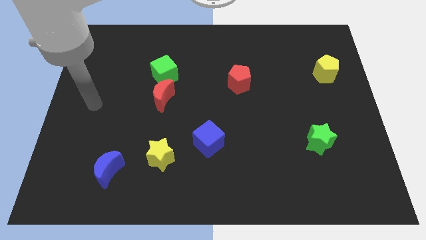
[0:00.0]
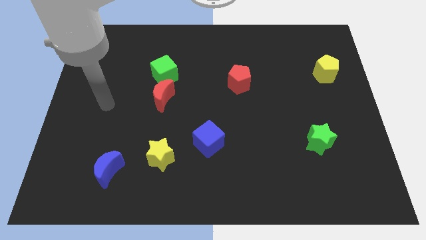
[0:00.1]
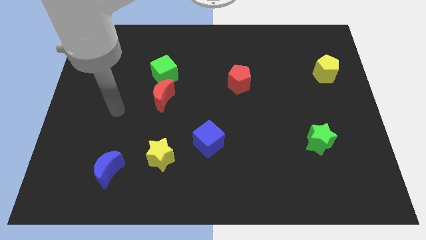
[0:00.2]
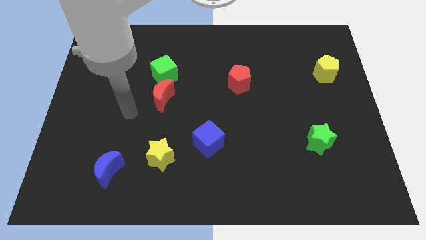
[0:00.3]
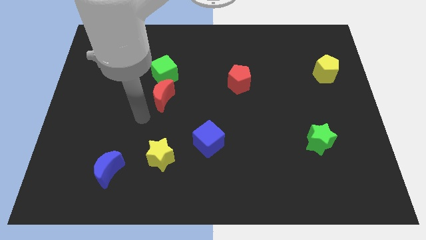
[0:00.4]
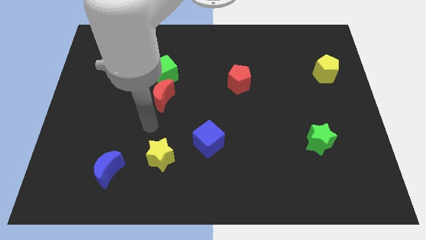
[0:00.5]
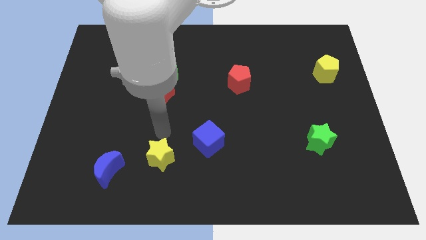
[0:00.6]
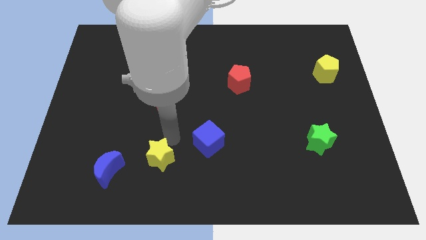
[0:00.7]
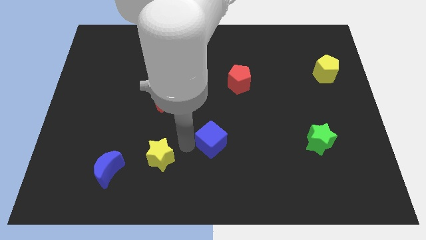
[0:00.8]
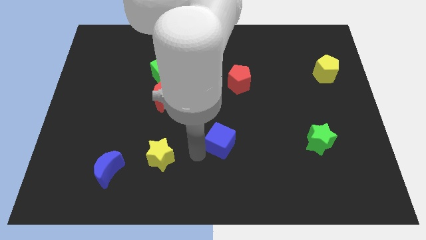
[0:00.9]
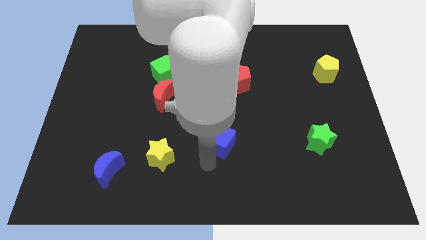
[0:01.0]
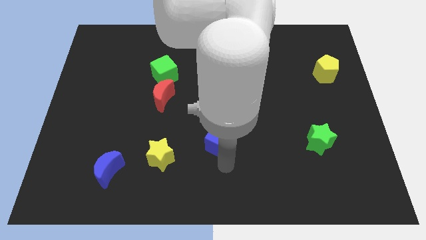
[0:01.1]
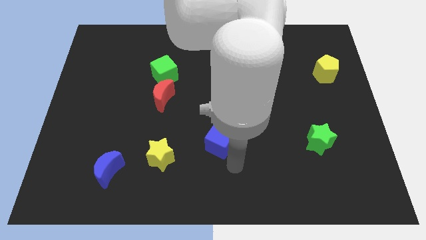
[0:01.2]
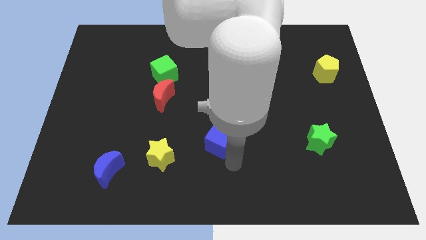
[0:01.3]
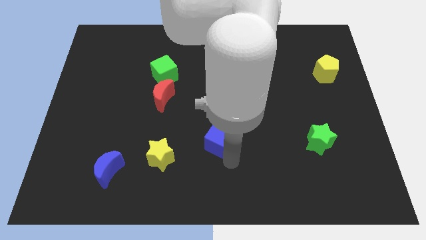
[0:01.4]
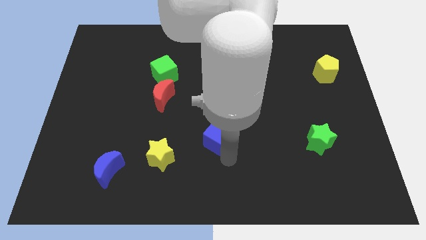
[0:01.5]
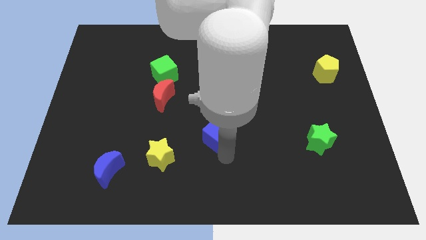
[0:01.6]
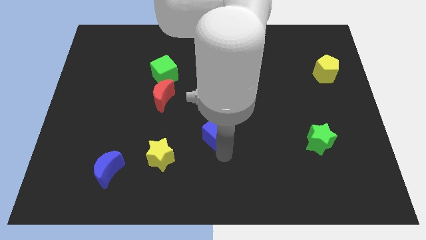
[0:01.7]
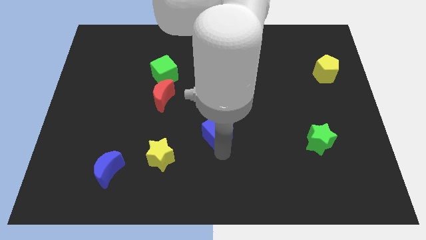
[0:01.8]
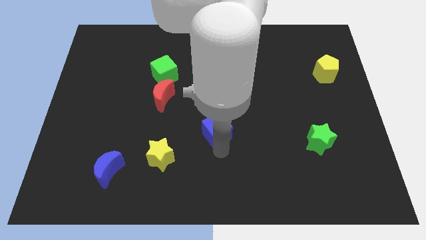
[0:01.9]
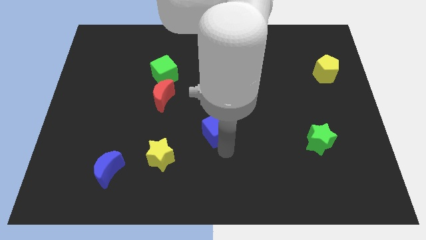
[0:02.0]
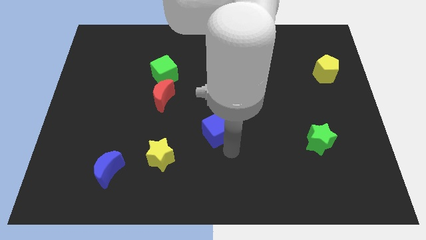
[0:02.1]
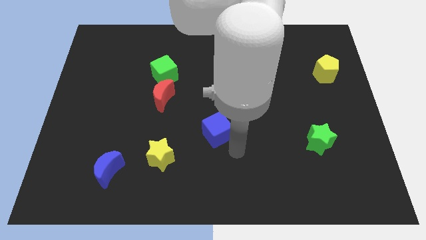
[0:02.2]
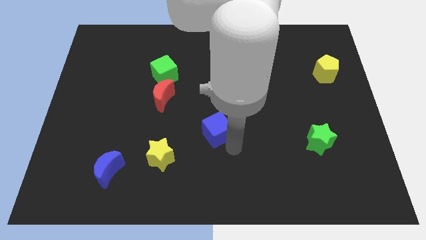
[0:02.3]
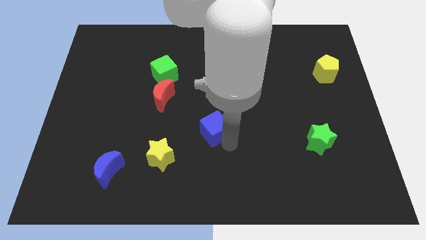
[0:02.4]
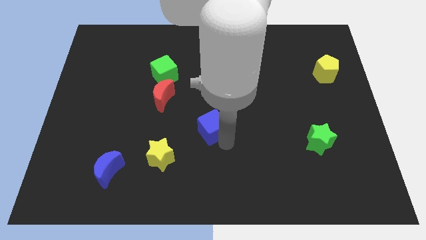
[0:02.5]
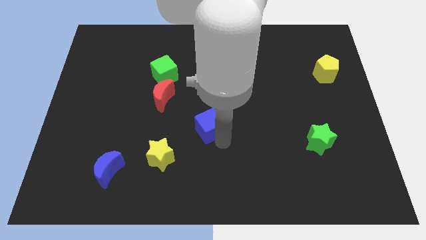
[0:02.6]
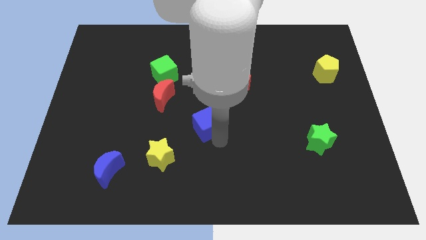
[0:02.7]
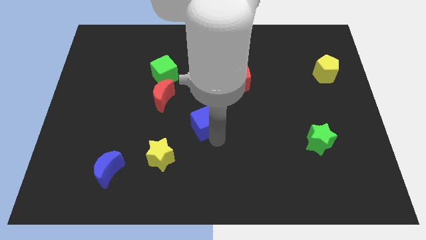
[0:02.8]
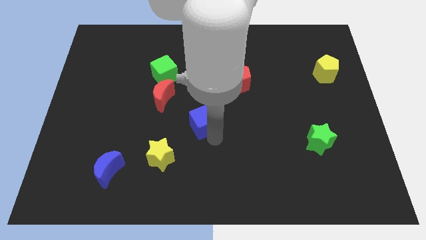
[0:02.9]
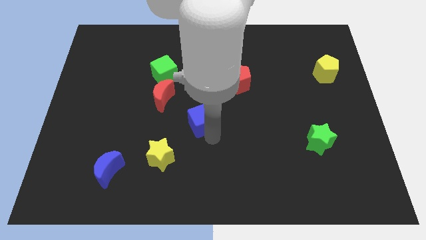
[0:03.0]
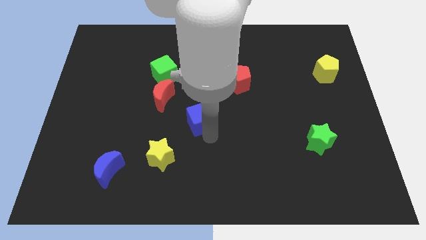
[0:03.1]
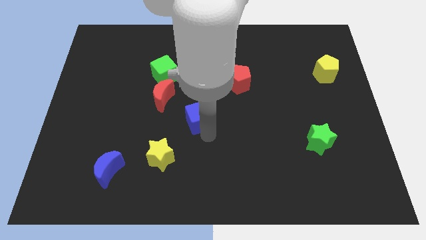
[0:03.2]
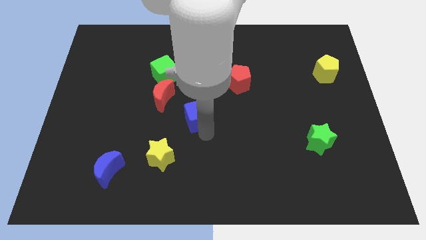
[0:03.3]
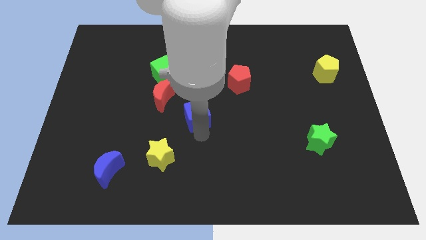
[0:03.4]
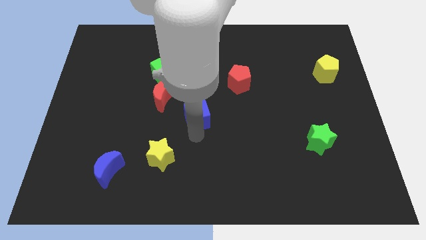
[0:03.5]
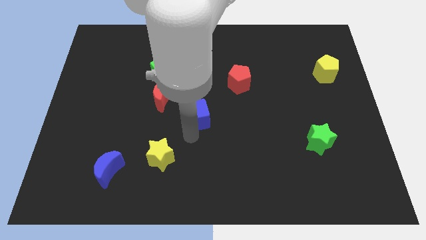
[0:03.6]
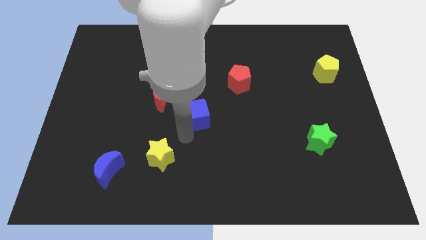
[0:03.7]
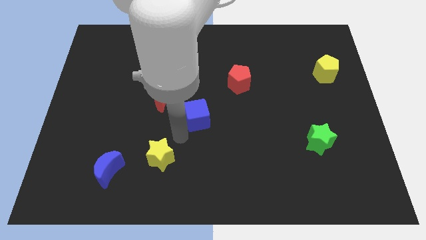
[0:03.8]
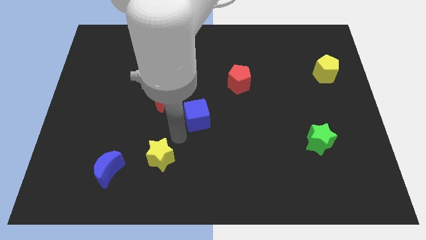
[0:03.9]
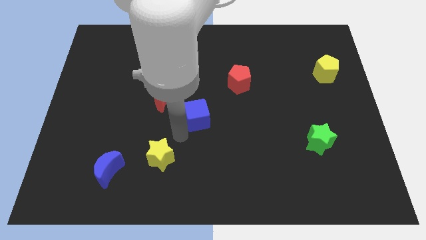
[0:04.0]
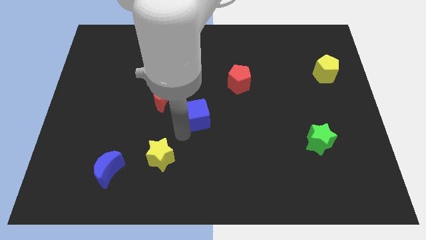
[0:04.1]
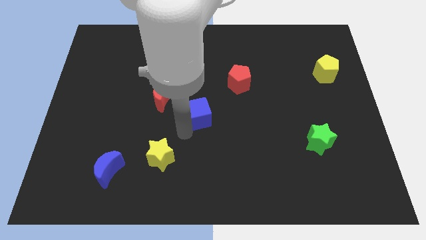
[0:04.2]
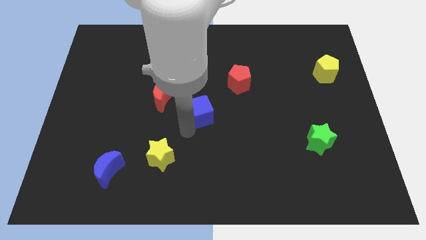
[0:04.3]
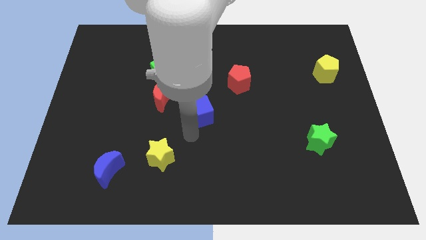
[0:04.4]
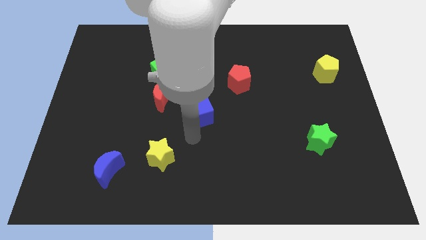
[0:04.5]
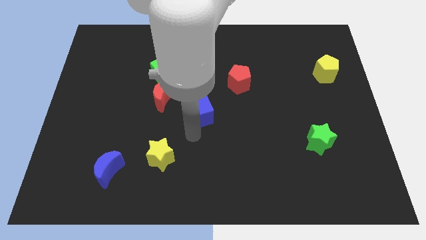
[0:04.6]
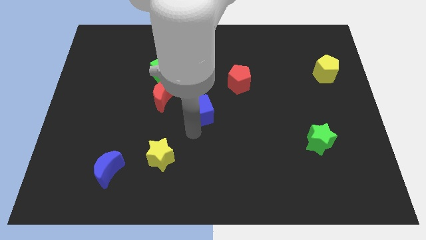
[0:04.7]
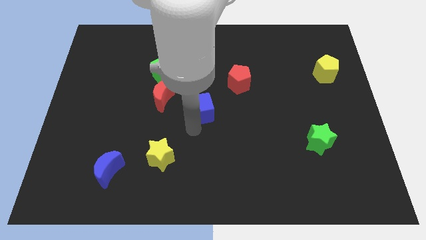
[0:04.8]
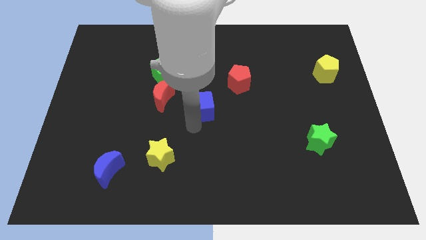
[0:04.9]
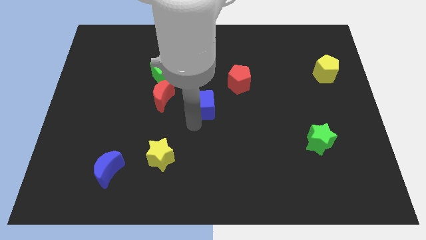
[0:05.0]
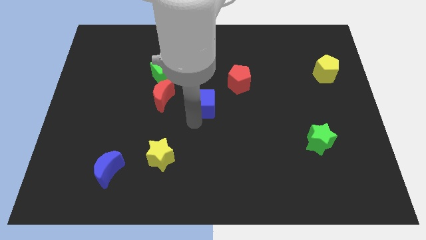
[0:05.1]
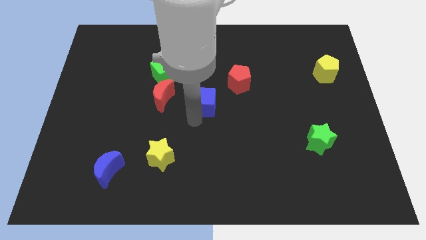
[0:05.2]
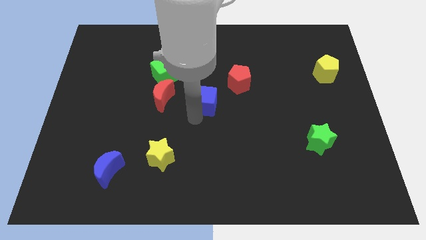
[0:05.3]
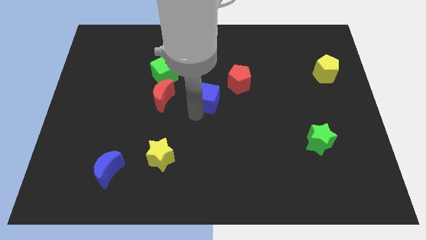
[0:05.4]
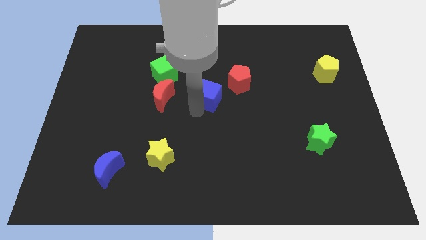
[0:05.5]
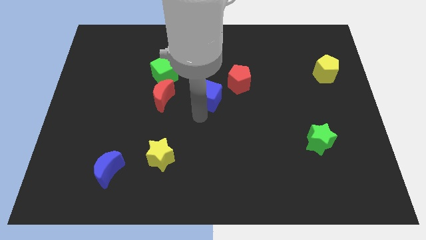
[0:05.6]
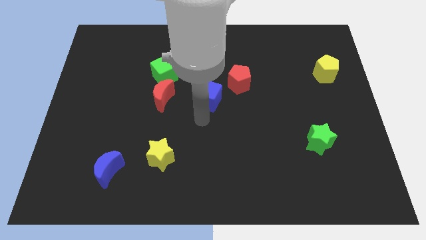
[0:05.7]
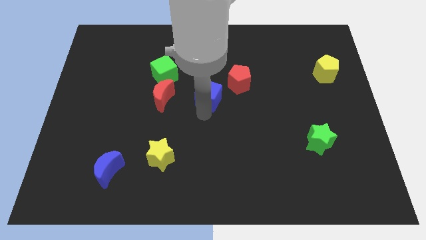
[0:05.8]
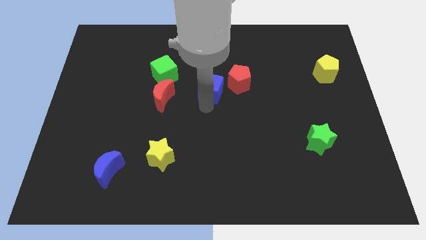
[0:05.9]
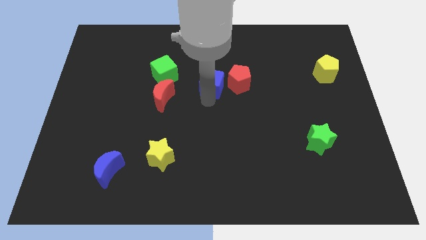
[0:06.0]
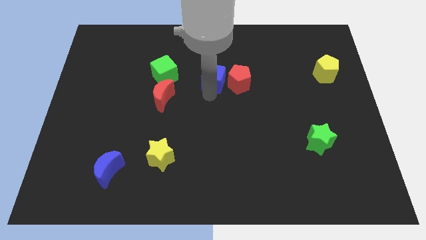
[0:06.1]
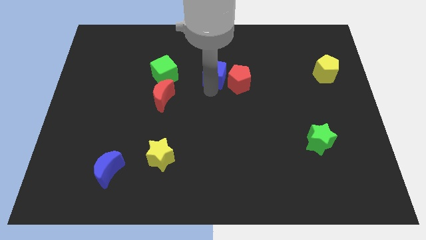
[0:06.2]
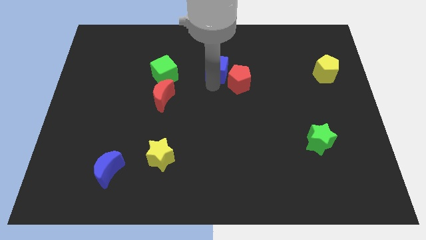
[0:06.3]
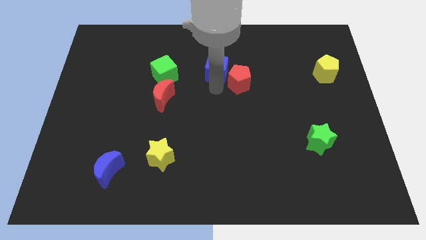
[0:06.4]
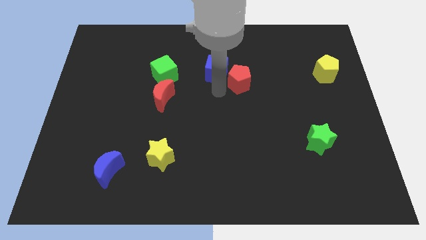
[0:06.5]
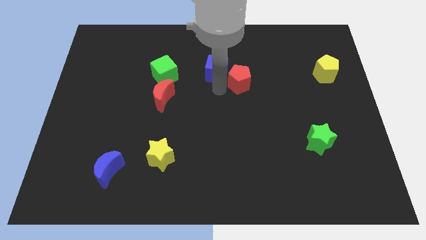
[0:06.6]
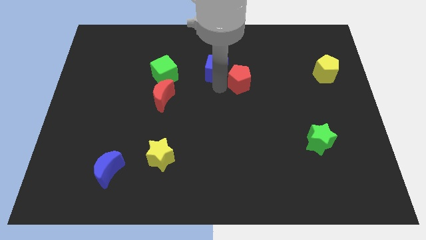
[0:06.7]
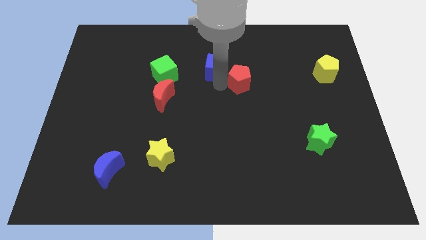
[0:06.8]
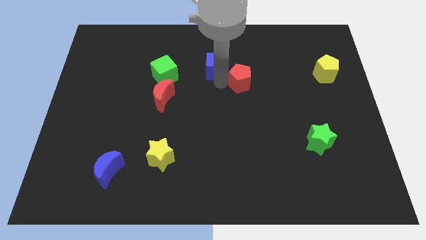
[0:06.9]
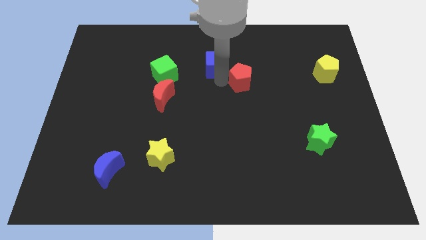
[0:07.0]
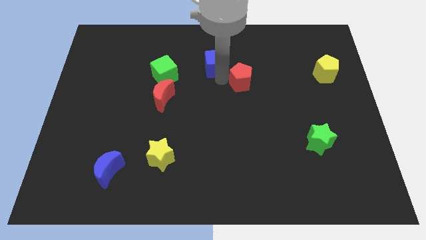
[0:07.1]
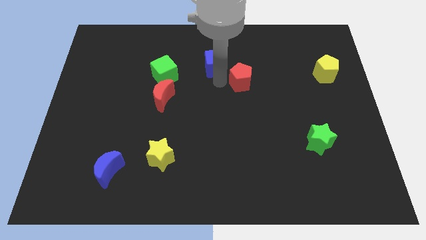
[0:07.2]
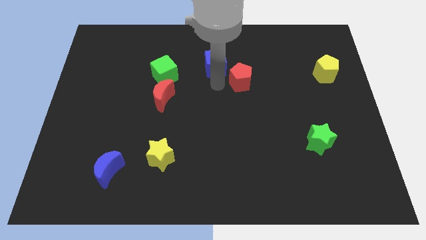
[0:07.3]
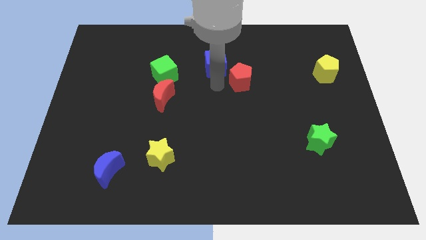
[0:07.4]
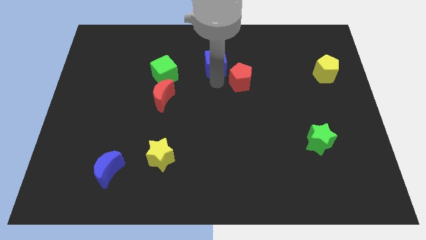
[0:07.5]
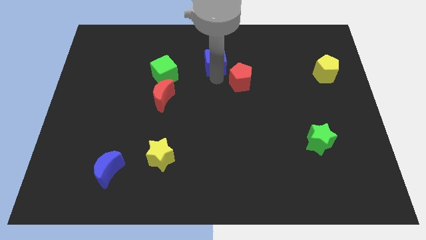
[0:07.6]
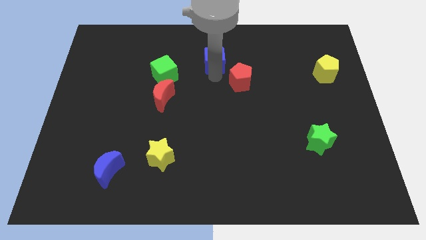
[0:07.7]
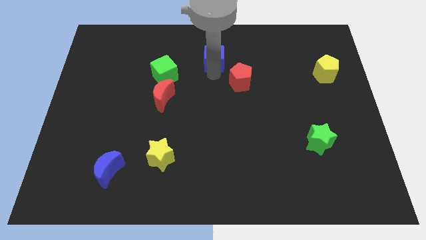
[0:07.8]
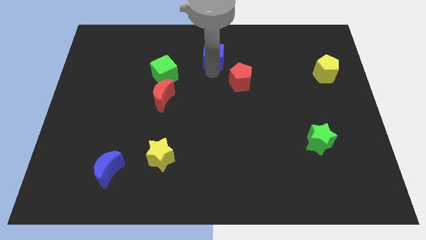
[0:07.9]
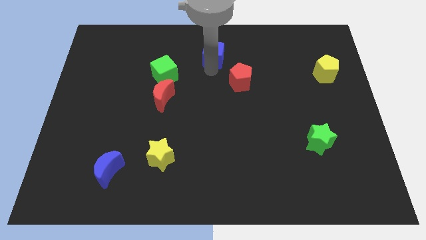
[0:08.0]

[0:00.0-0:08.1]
put the blue cube to the top side
